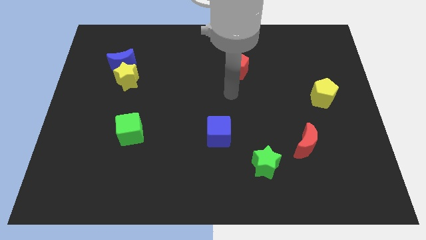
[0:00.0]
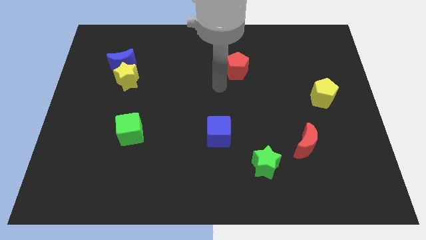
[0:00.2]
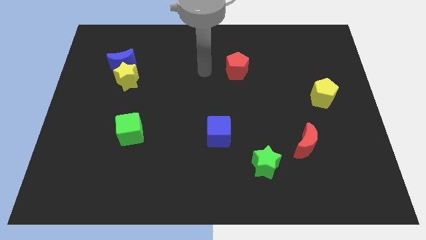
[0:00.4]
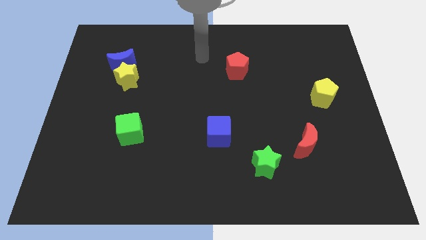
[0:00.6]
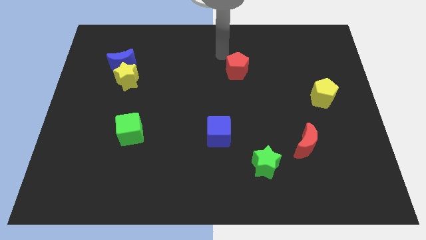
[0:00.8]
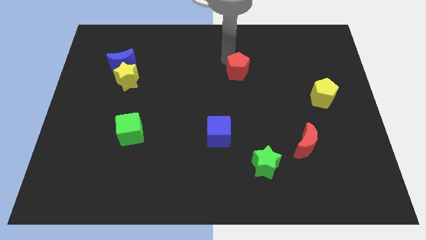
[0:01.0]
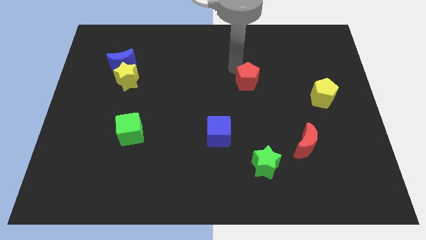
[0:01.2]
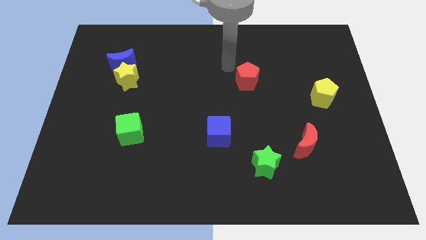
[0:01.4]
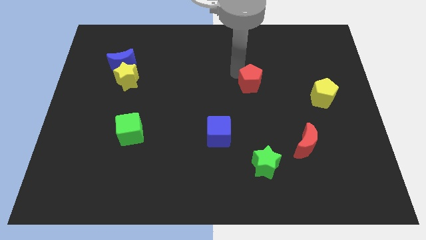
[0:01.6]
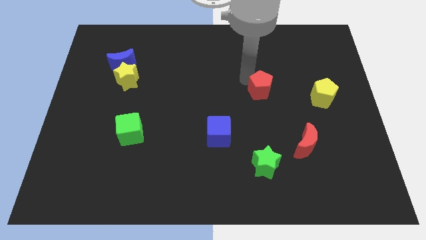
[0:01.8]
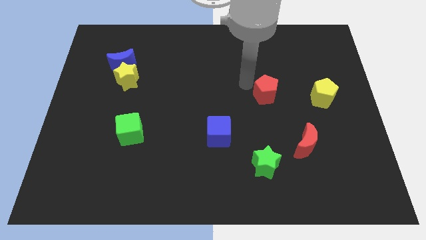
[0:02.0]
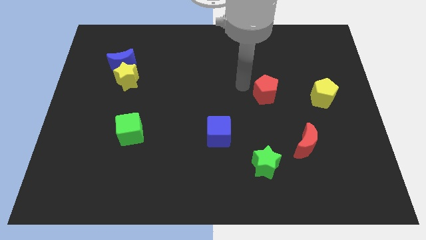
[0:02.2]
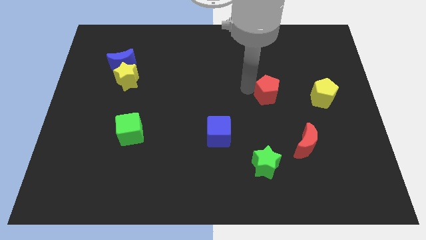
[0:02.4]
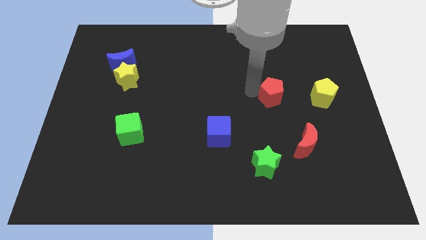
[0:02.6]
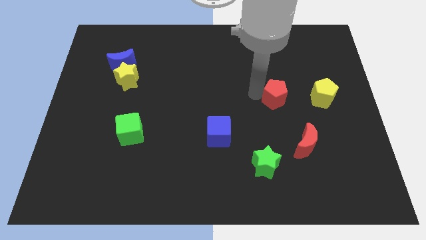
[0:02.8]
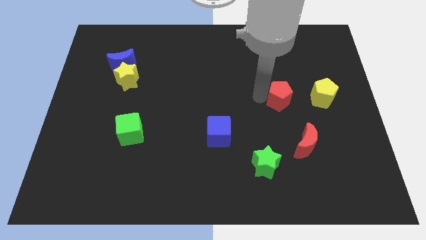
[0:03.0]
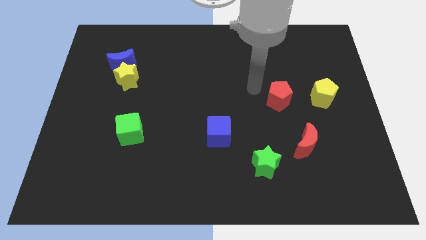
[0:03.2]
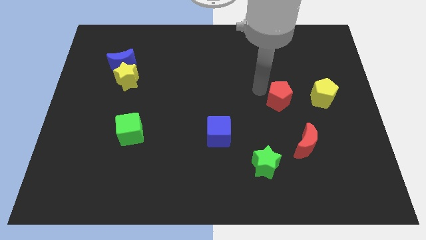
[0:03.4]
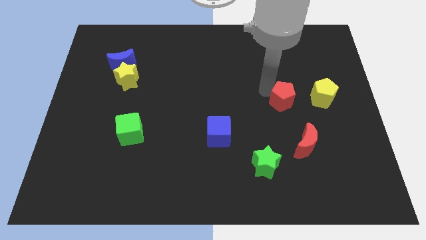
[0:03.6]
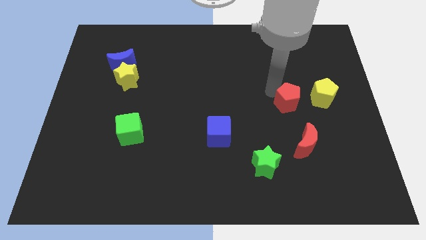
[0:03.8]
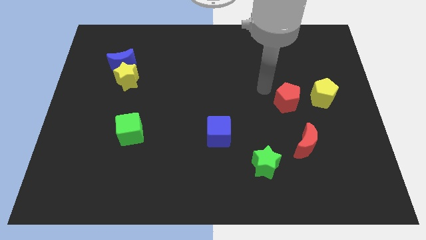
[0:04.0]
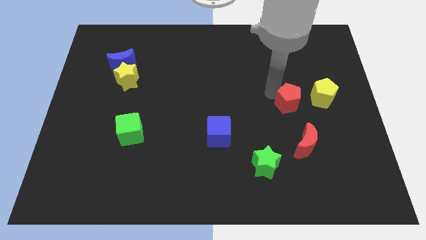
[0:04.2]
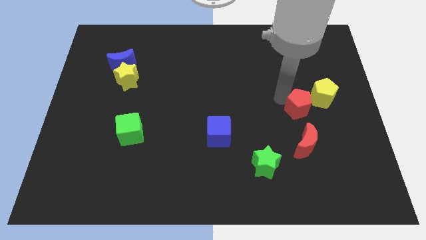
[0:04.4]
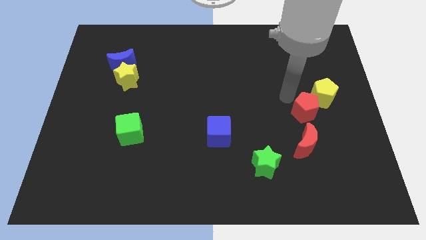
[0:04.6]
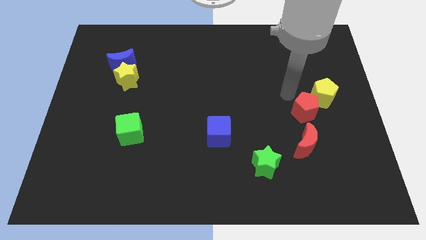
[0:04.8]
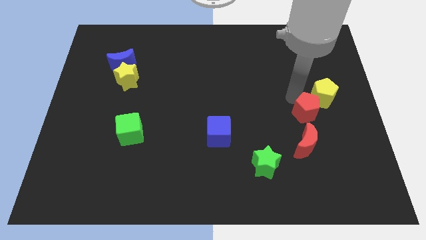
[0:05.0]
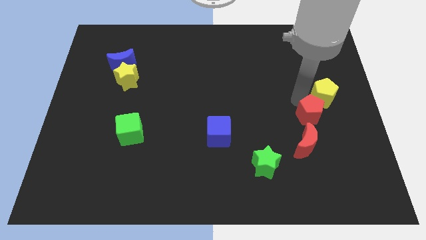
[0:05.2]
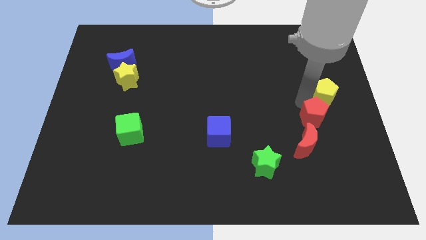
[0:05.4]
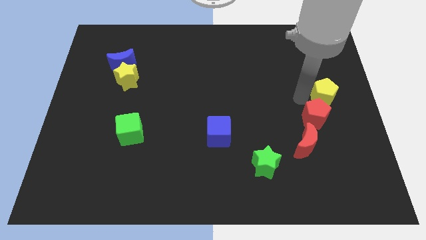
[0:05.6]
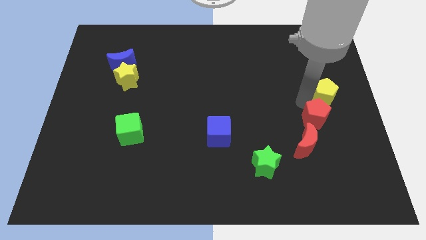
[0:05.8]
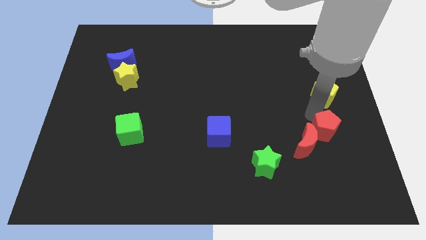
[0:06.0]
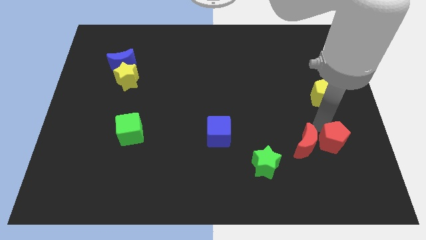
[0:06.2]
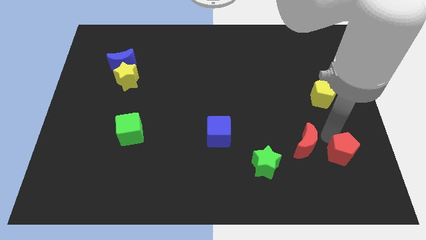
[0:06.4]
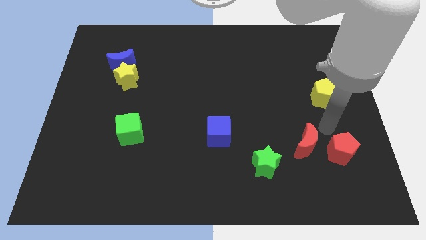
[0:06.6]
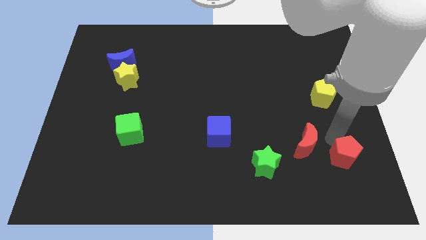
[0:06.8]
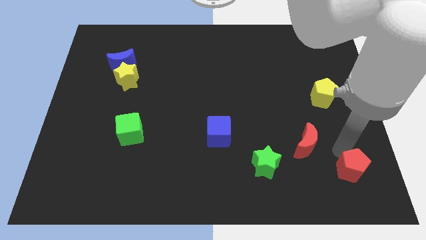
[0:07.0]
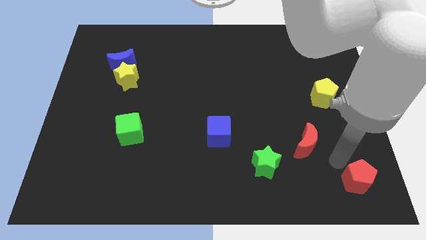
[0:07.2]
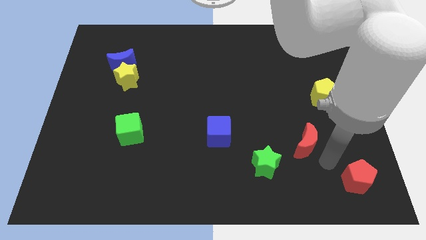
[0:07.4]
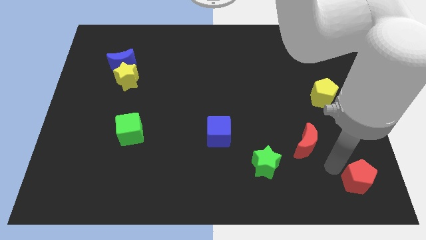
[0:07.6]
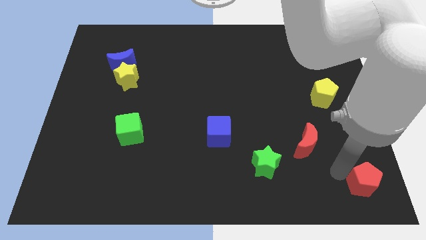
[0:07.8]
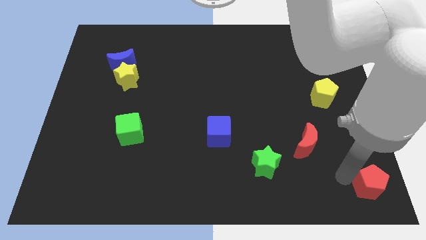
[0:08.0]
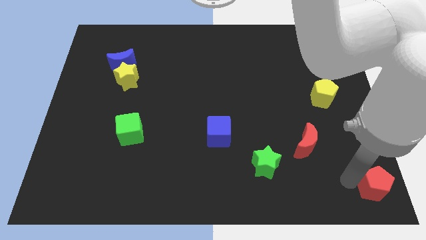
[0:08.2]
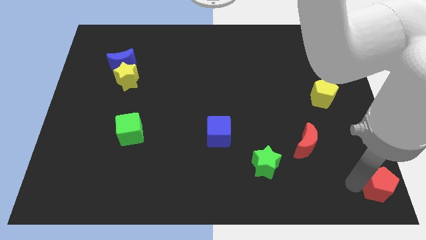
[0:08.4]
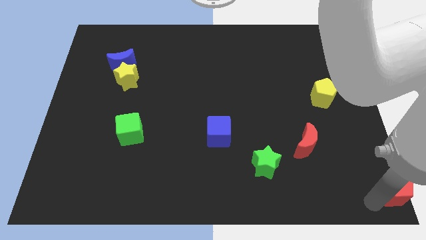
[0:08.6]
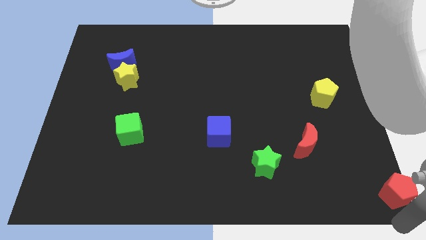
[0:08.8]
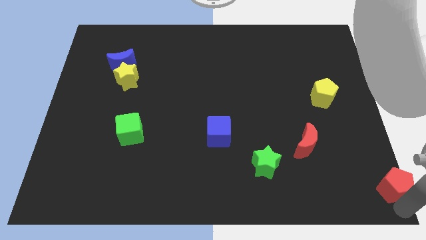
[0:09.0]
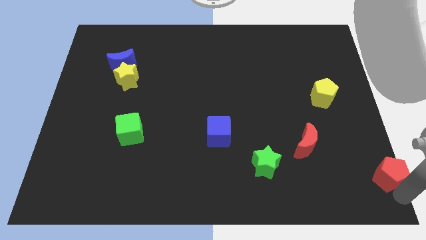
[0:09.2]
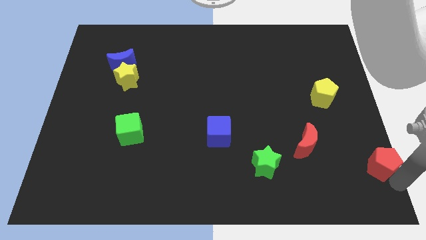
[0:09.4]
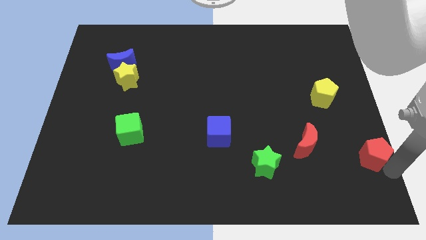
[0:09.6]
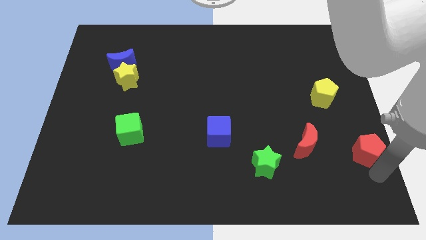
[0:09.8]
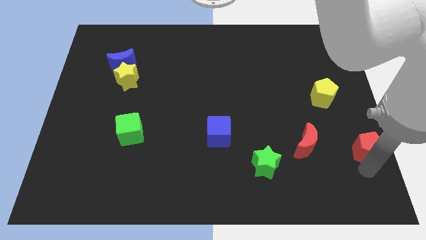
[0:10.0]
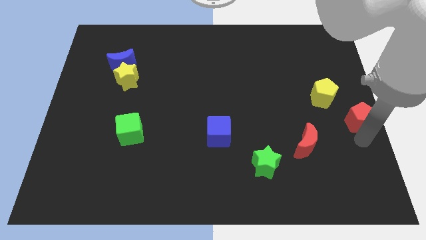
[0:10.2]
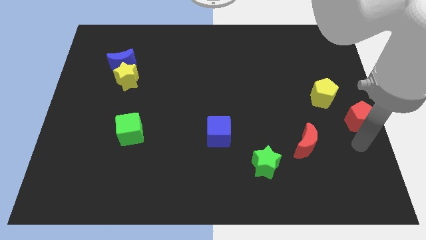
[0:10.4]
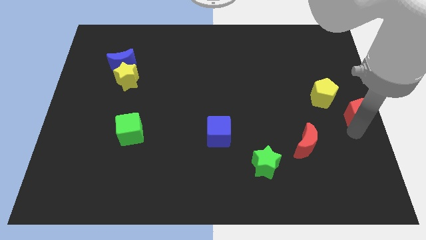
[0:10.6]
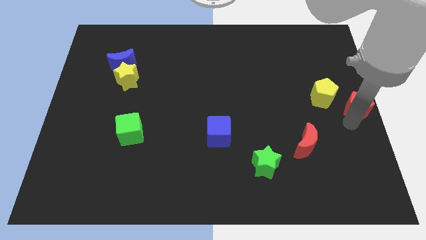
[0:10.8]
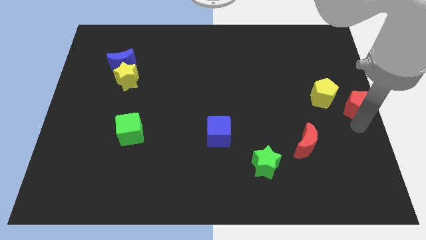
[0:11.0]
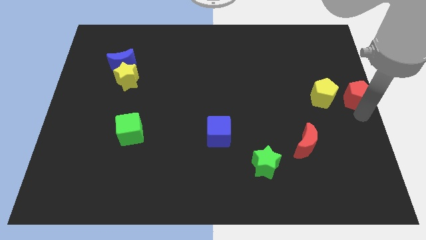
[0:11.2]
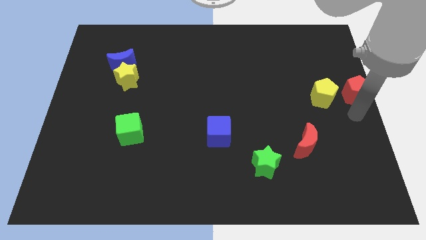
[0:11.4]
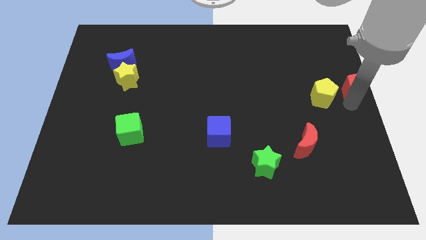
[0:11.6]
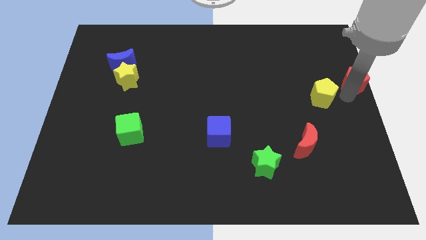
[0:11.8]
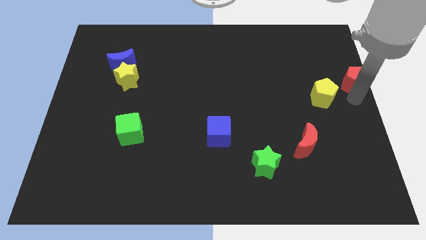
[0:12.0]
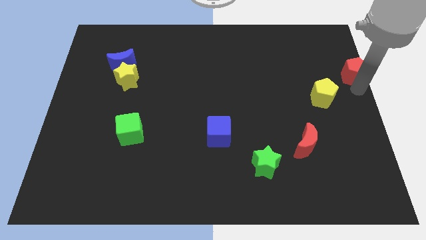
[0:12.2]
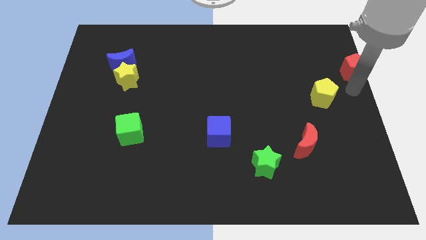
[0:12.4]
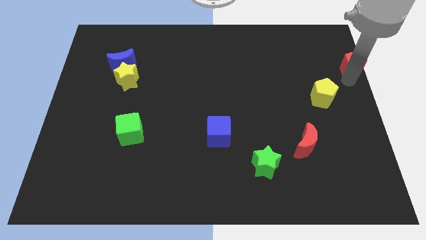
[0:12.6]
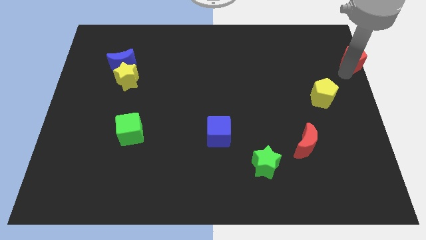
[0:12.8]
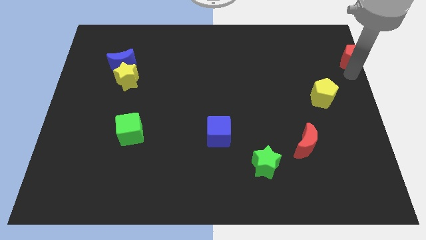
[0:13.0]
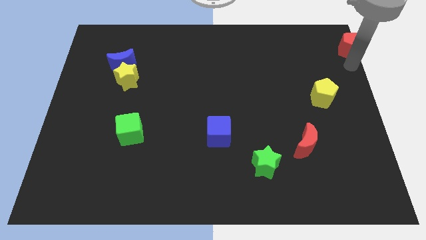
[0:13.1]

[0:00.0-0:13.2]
slide the red pentagon to the top right
